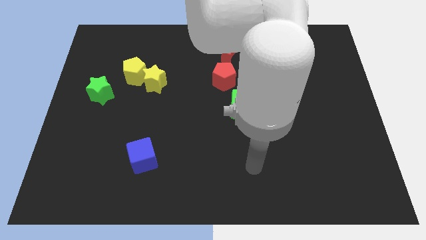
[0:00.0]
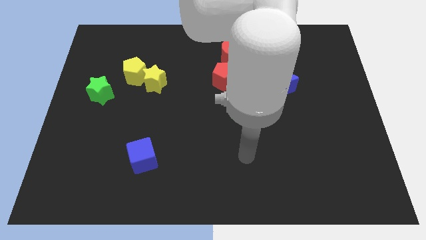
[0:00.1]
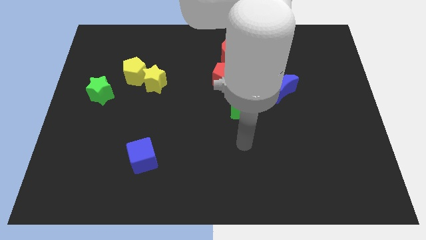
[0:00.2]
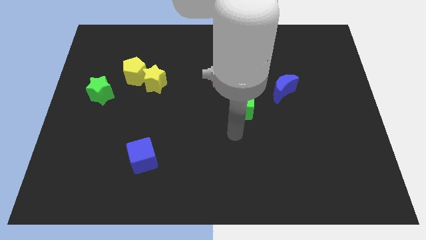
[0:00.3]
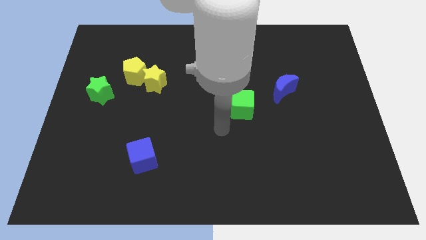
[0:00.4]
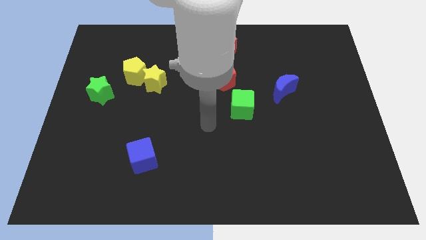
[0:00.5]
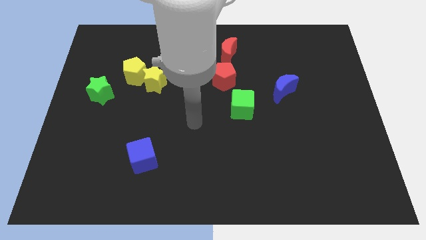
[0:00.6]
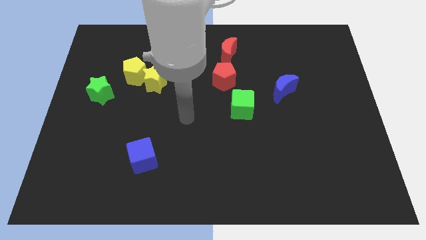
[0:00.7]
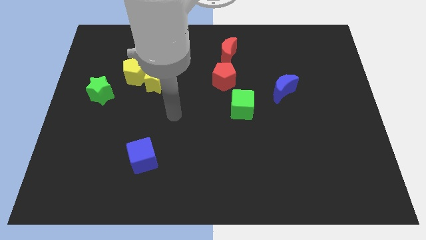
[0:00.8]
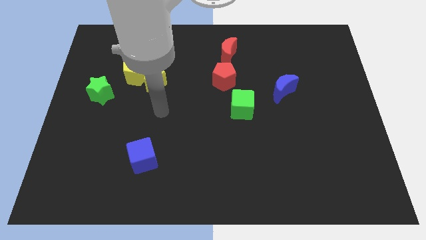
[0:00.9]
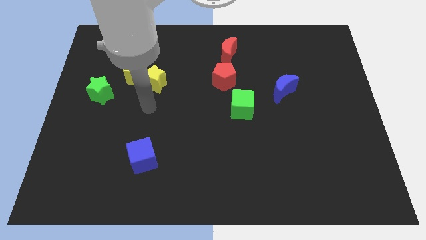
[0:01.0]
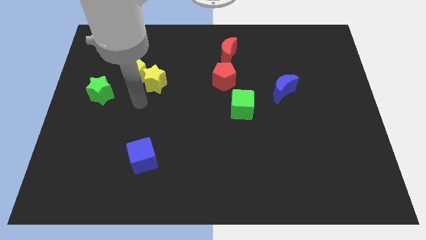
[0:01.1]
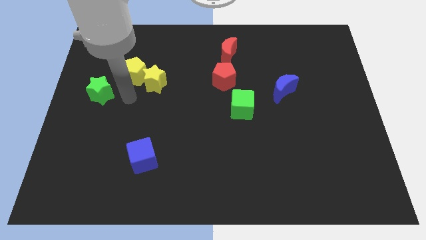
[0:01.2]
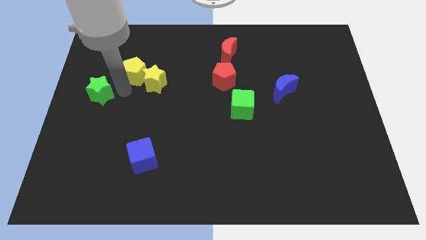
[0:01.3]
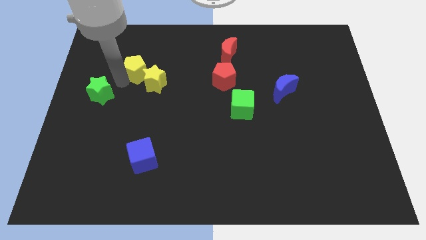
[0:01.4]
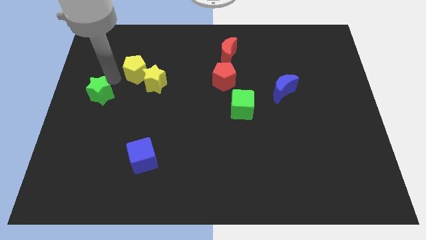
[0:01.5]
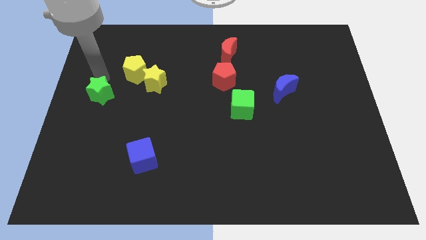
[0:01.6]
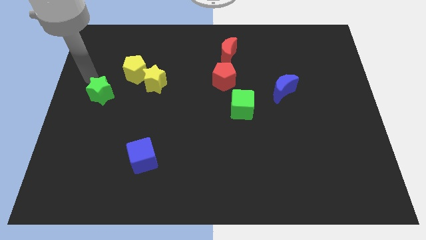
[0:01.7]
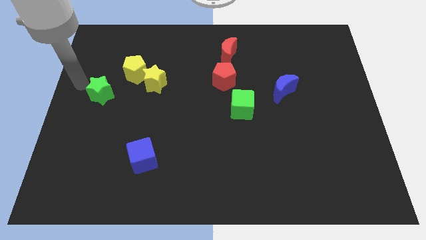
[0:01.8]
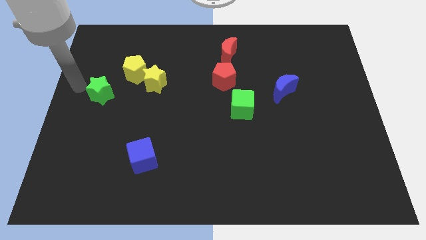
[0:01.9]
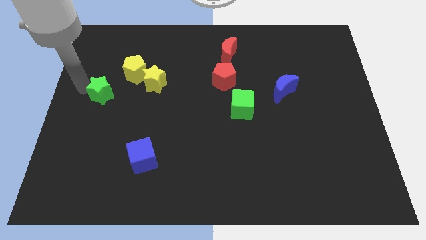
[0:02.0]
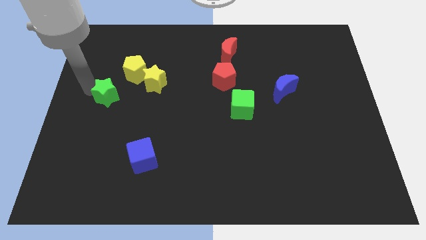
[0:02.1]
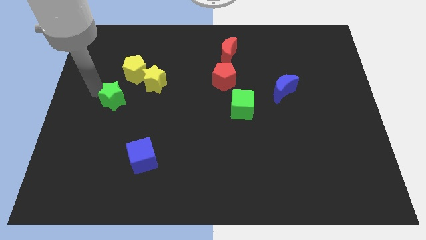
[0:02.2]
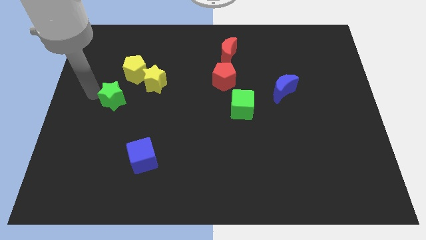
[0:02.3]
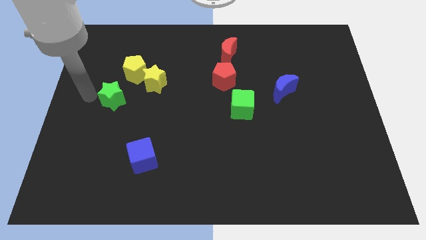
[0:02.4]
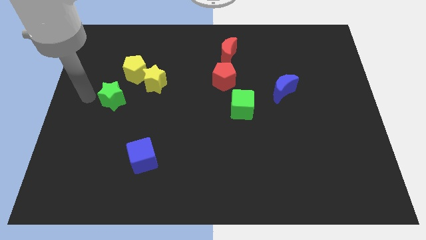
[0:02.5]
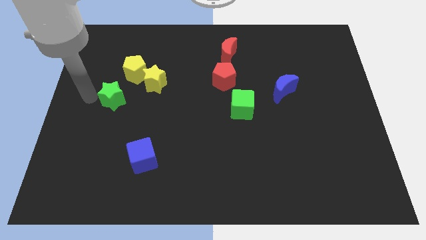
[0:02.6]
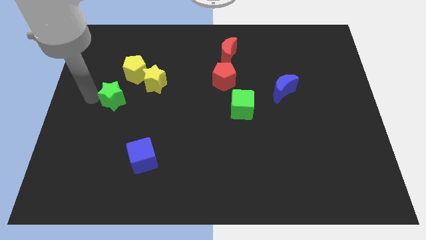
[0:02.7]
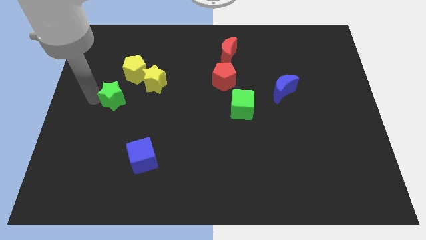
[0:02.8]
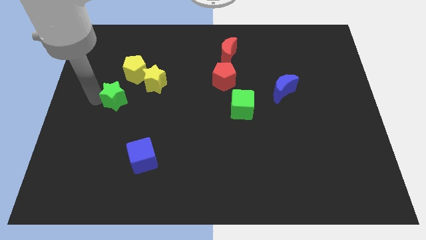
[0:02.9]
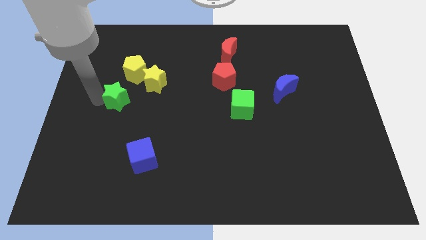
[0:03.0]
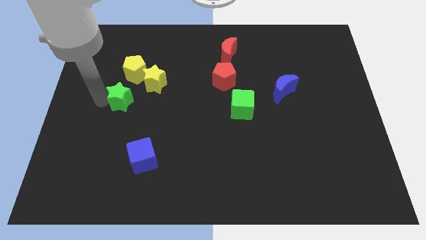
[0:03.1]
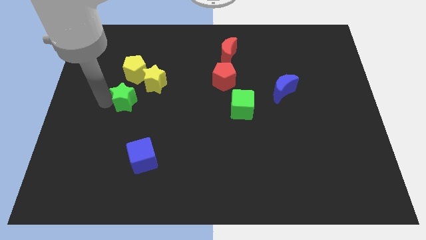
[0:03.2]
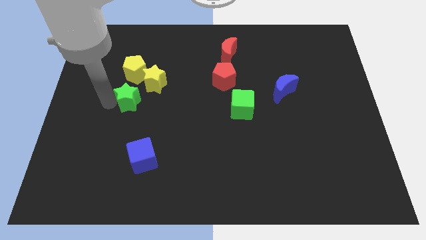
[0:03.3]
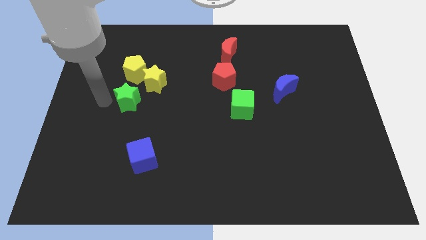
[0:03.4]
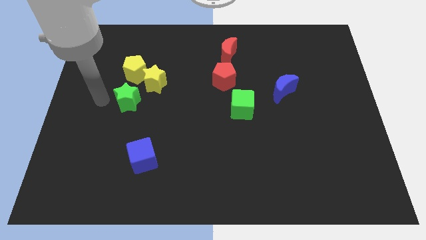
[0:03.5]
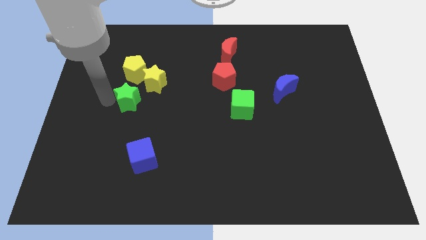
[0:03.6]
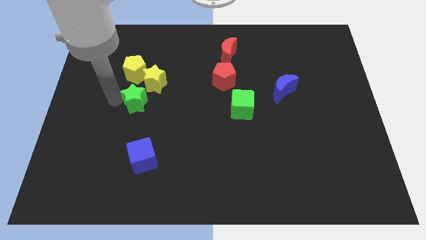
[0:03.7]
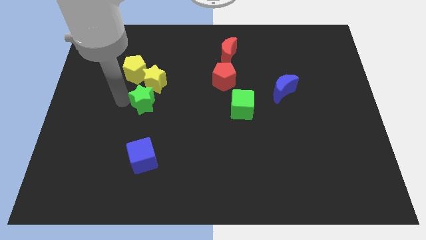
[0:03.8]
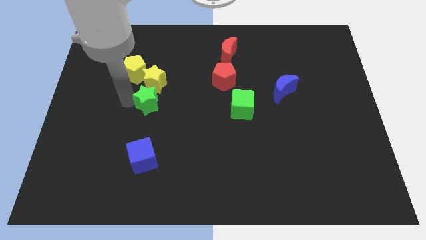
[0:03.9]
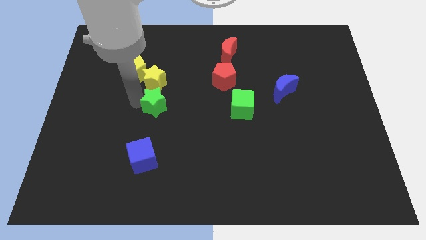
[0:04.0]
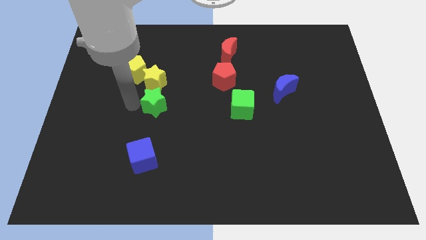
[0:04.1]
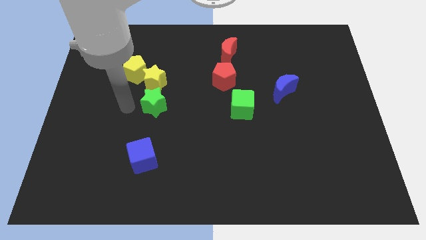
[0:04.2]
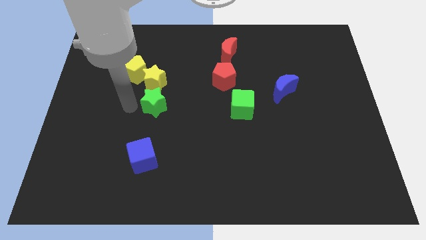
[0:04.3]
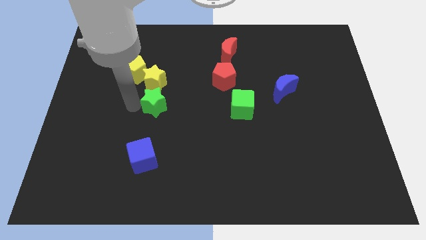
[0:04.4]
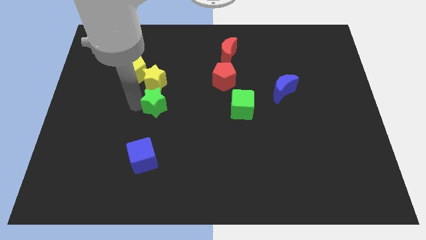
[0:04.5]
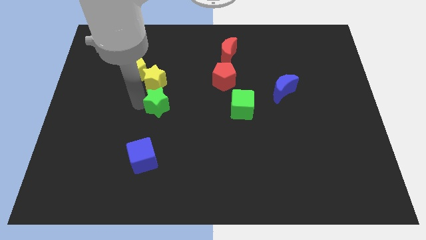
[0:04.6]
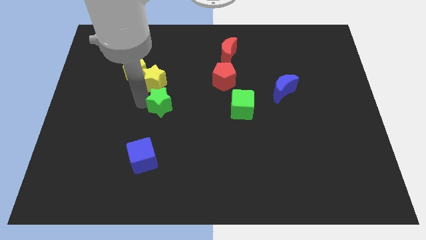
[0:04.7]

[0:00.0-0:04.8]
move the green star to the middle of the board

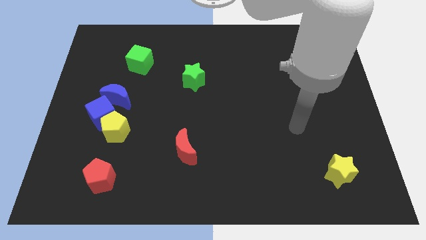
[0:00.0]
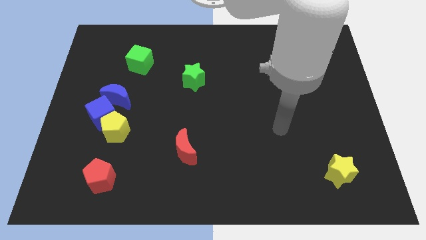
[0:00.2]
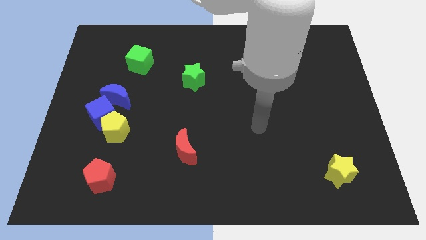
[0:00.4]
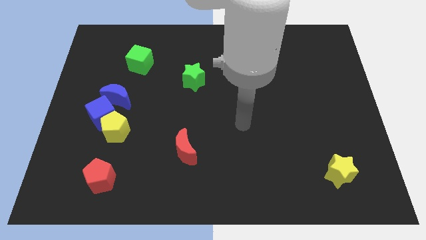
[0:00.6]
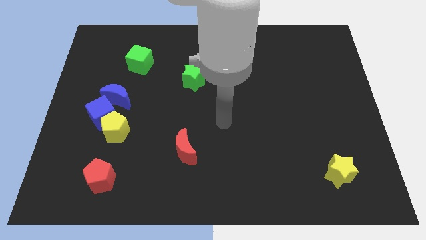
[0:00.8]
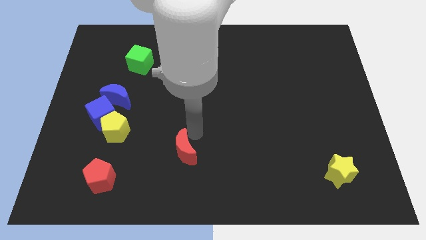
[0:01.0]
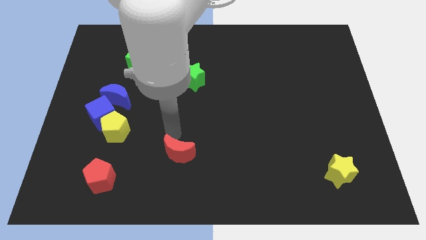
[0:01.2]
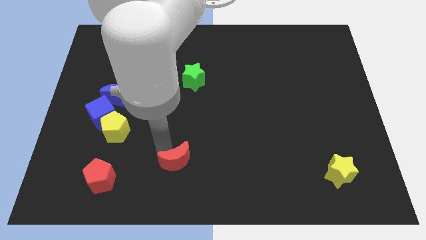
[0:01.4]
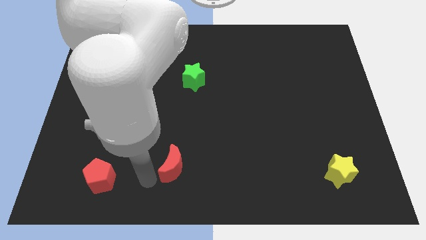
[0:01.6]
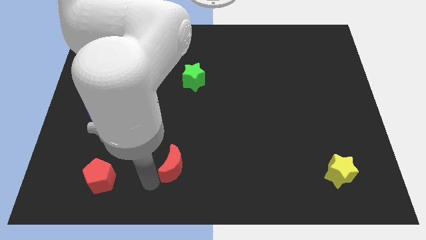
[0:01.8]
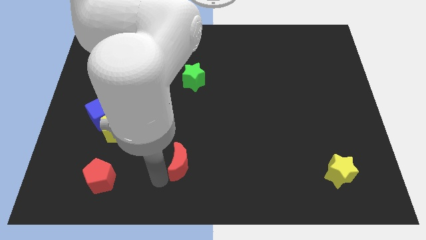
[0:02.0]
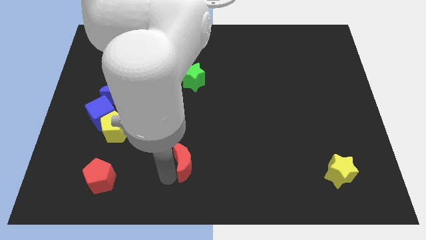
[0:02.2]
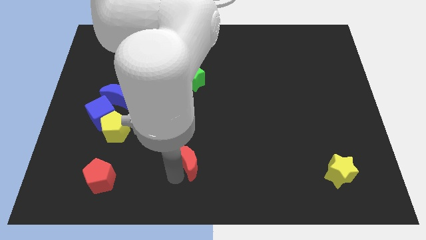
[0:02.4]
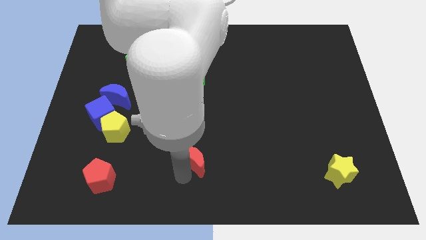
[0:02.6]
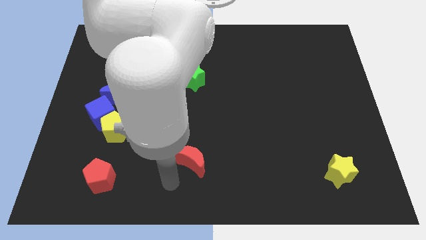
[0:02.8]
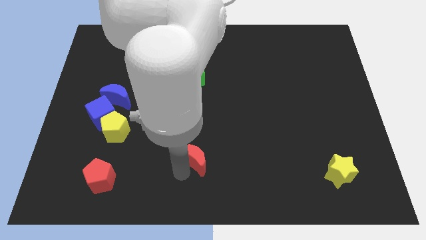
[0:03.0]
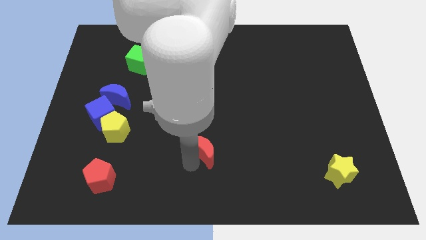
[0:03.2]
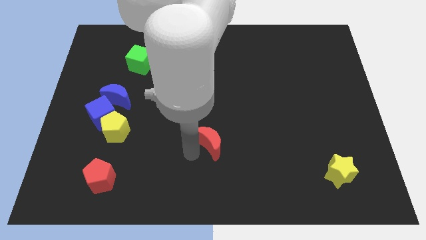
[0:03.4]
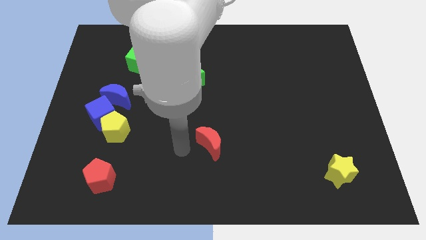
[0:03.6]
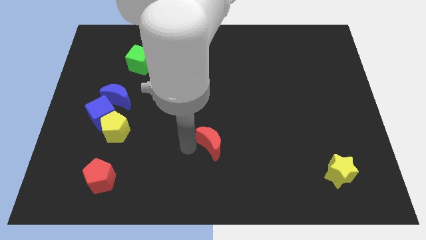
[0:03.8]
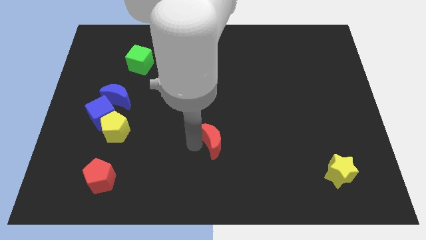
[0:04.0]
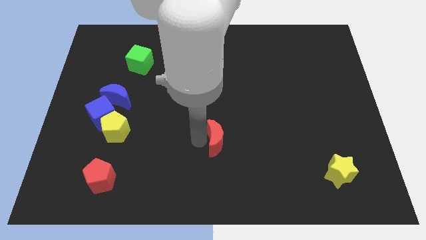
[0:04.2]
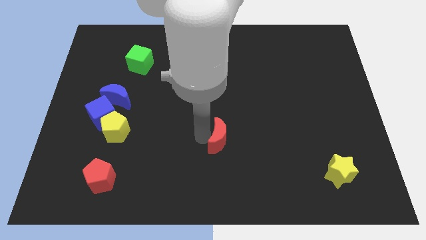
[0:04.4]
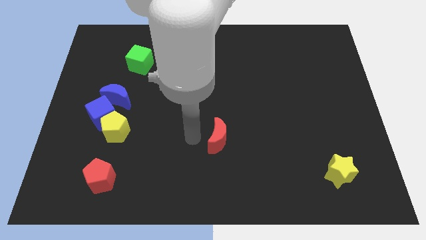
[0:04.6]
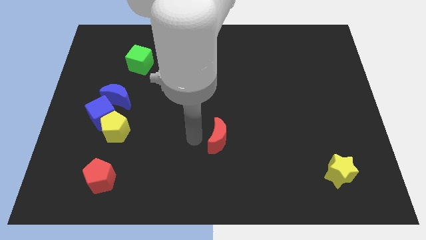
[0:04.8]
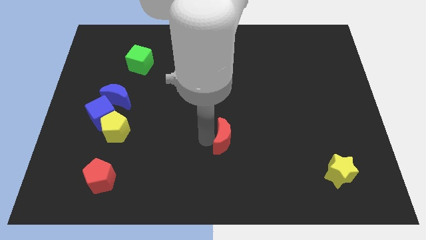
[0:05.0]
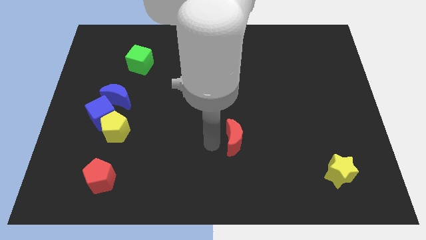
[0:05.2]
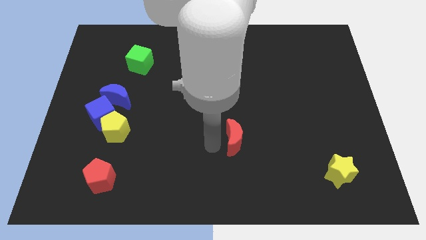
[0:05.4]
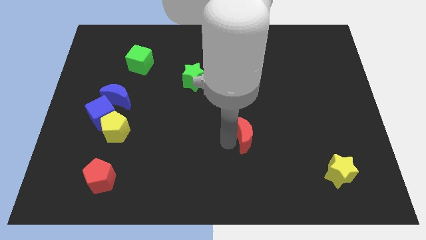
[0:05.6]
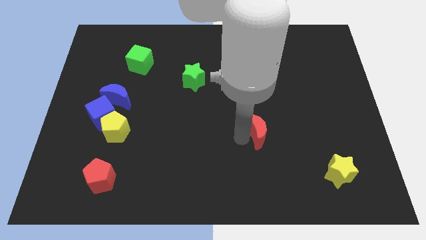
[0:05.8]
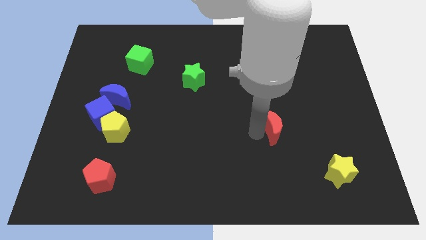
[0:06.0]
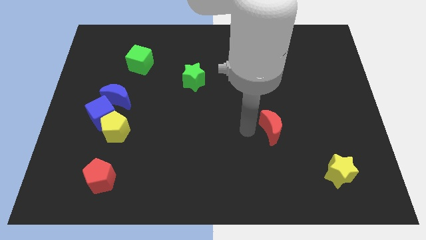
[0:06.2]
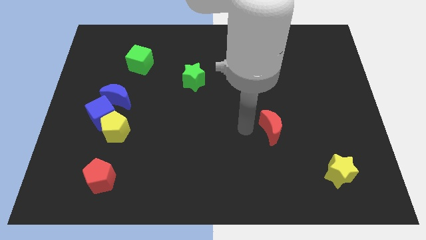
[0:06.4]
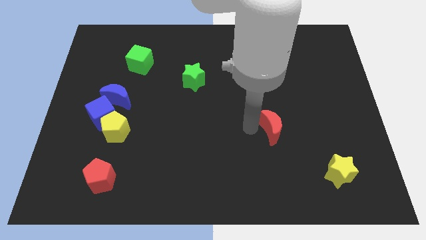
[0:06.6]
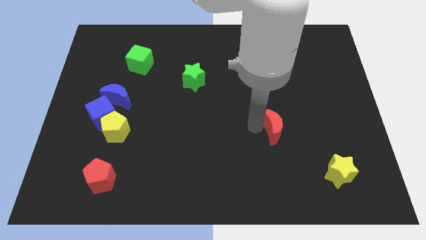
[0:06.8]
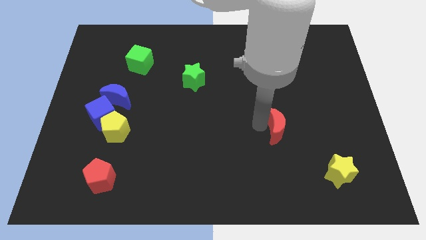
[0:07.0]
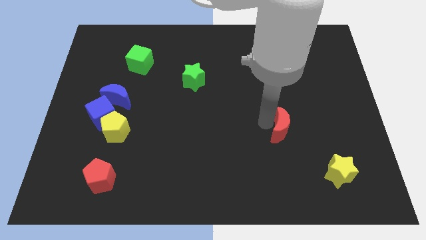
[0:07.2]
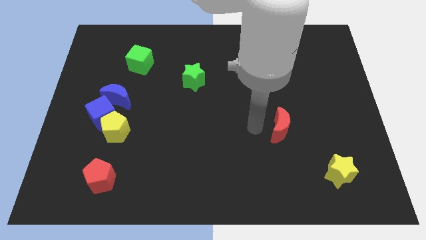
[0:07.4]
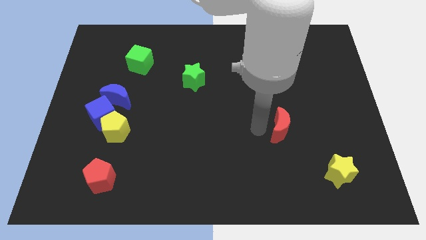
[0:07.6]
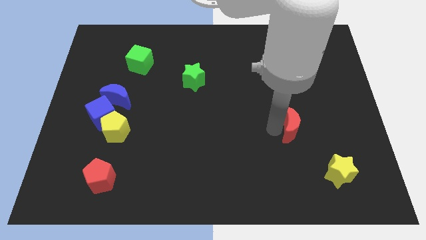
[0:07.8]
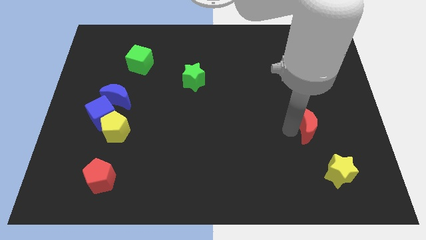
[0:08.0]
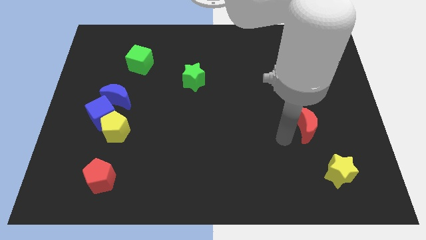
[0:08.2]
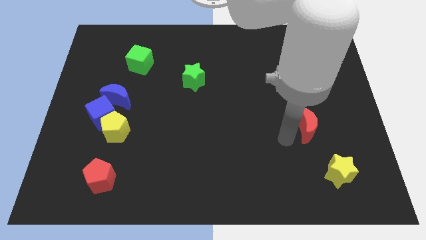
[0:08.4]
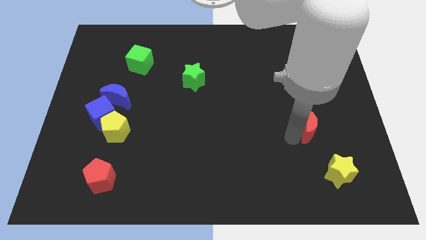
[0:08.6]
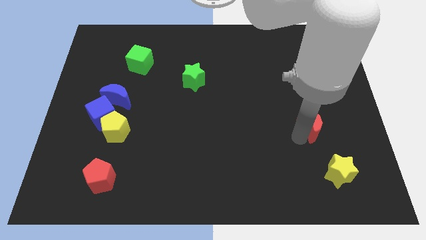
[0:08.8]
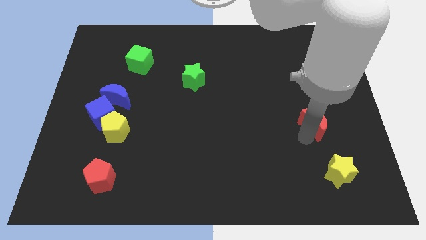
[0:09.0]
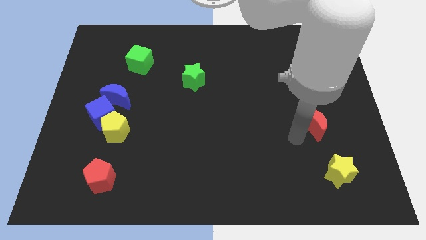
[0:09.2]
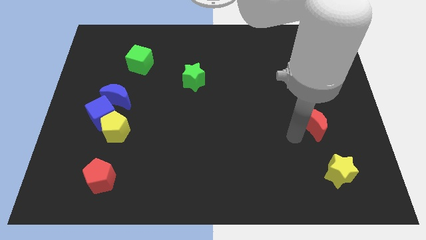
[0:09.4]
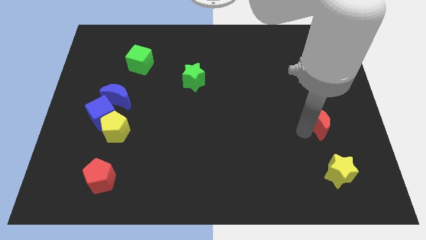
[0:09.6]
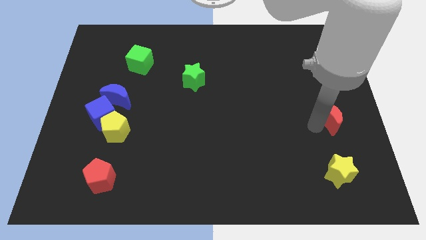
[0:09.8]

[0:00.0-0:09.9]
push the red moon to the right side of the board
